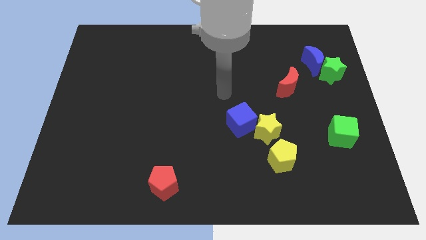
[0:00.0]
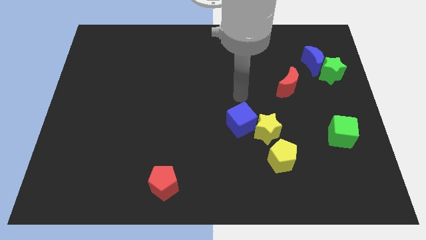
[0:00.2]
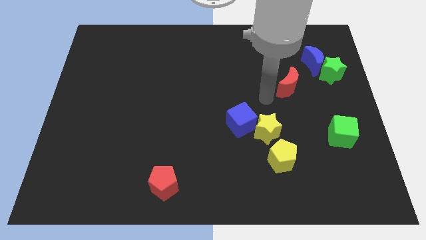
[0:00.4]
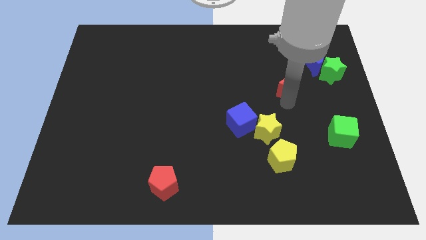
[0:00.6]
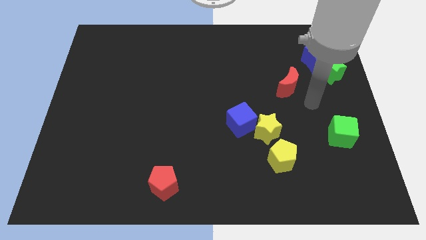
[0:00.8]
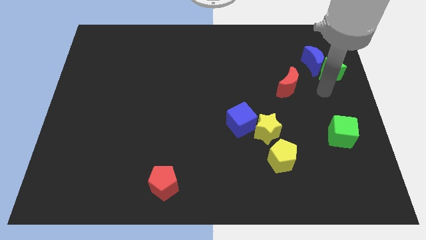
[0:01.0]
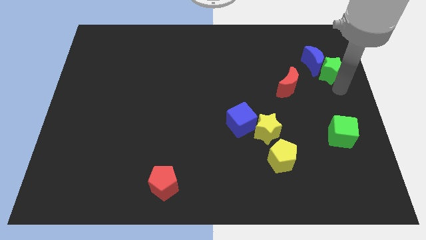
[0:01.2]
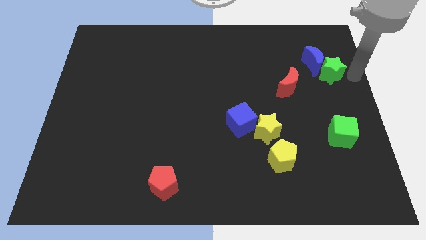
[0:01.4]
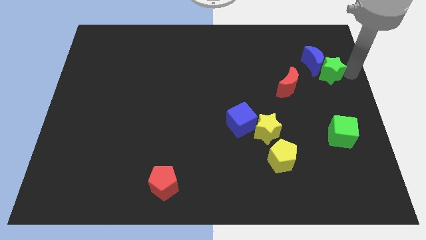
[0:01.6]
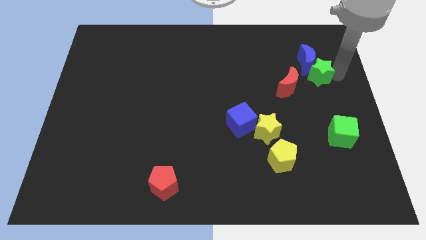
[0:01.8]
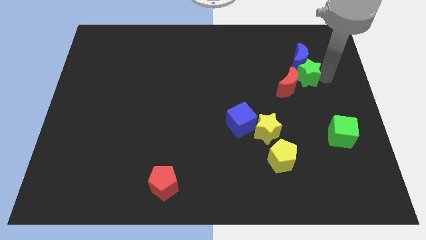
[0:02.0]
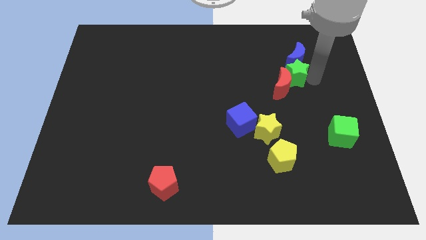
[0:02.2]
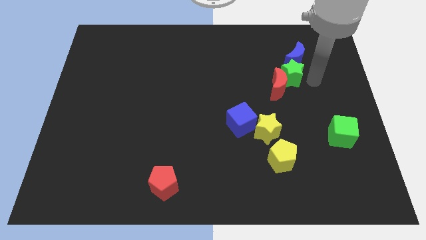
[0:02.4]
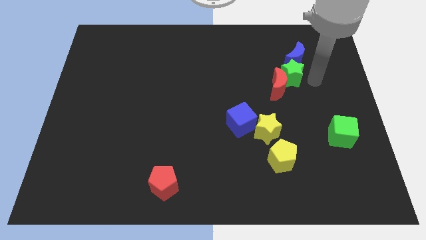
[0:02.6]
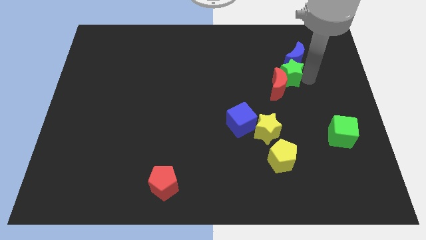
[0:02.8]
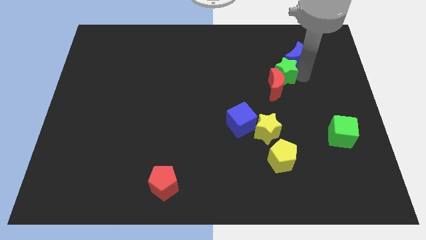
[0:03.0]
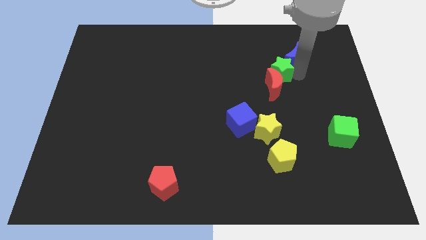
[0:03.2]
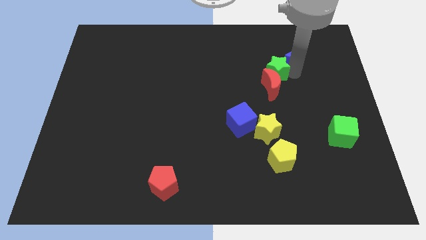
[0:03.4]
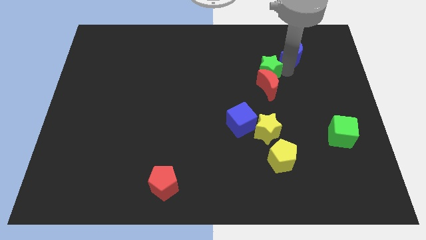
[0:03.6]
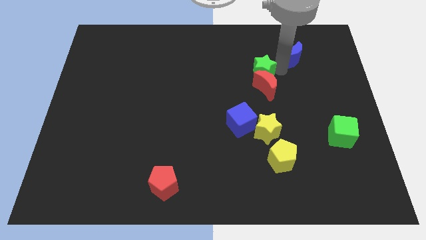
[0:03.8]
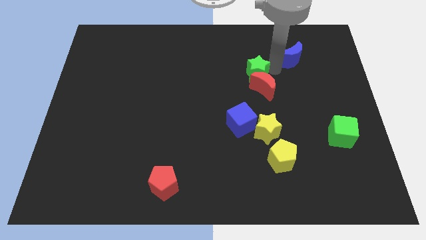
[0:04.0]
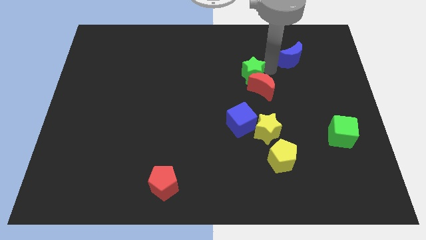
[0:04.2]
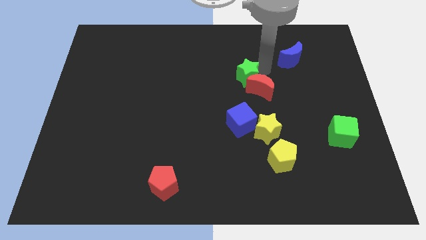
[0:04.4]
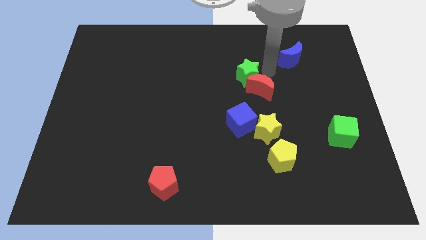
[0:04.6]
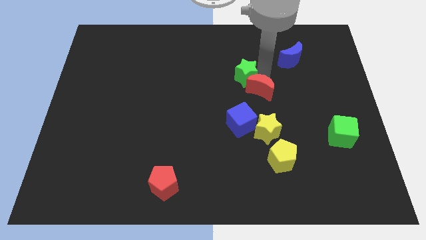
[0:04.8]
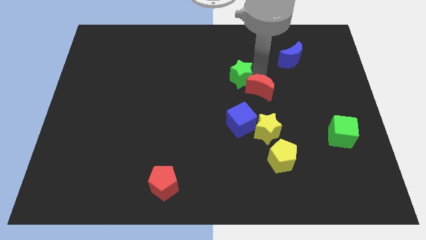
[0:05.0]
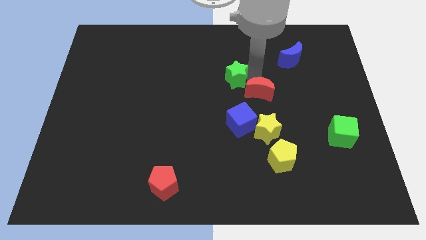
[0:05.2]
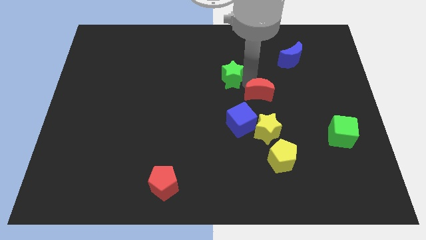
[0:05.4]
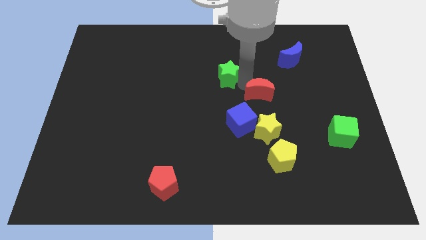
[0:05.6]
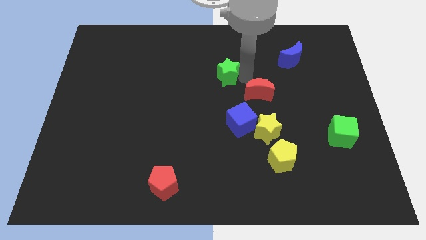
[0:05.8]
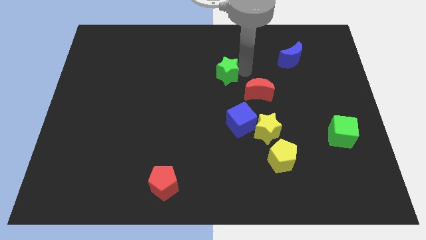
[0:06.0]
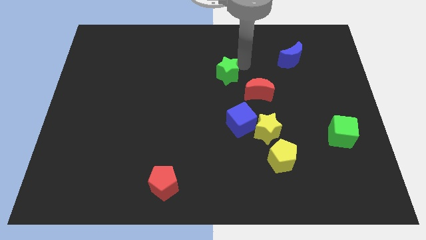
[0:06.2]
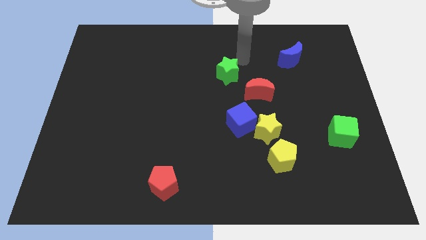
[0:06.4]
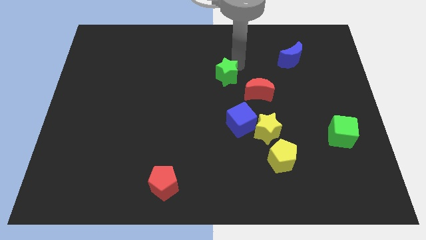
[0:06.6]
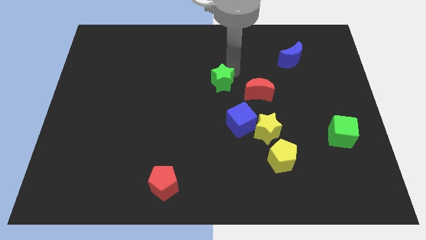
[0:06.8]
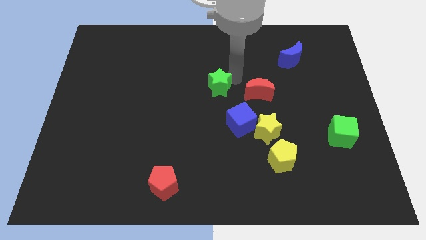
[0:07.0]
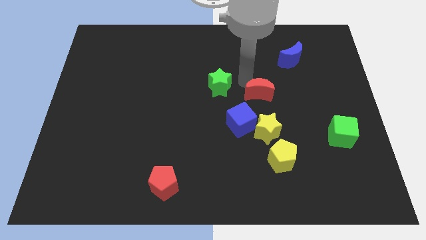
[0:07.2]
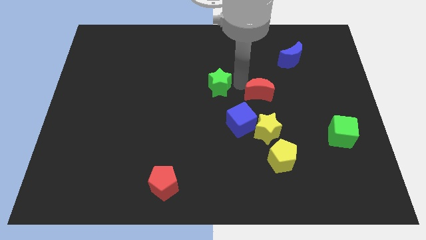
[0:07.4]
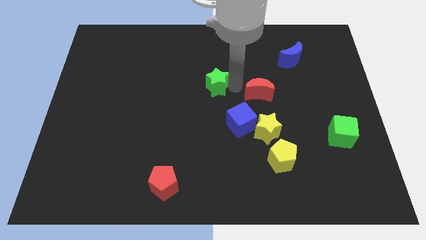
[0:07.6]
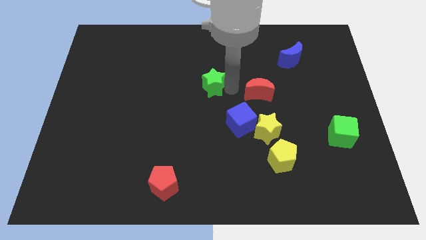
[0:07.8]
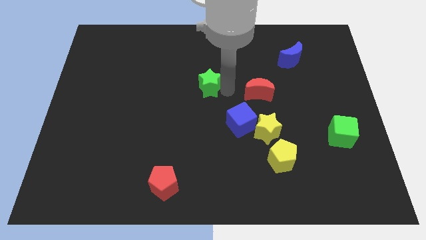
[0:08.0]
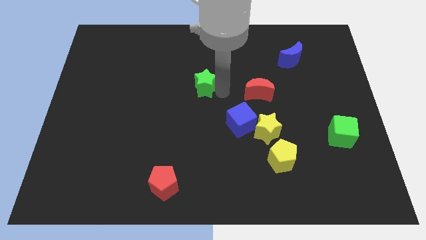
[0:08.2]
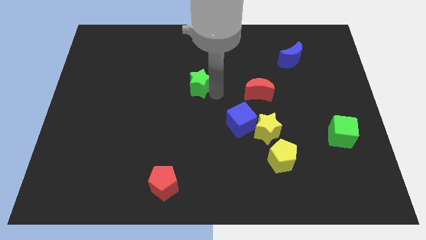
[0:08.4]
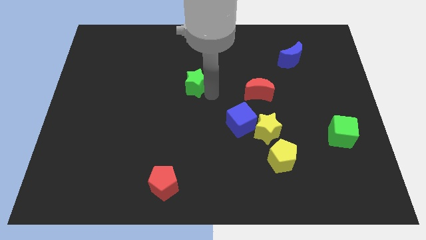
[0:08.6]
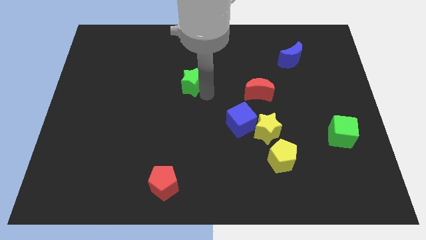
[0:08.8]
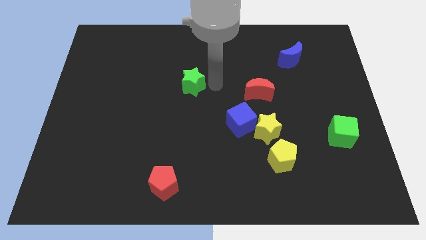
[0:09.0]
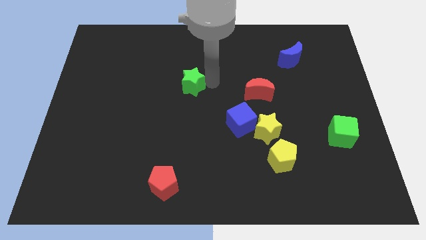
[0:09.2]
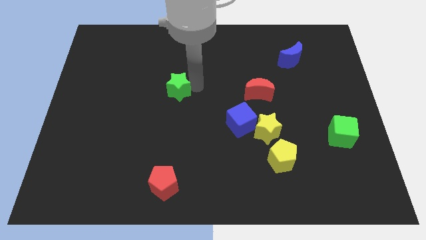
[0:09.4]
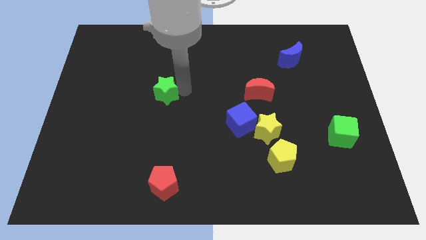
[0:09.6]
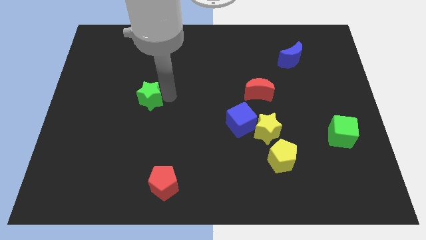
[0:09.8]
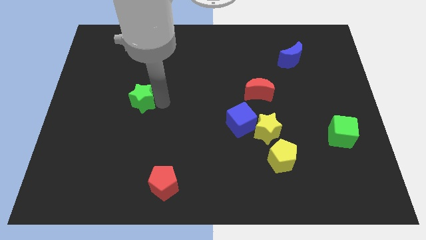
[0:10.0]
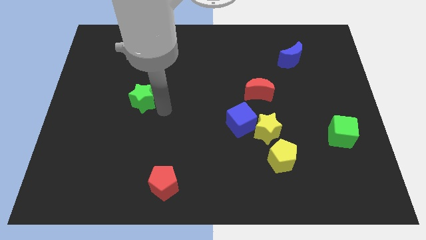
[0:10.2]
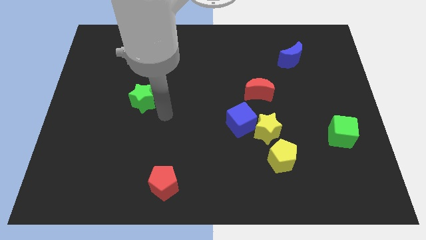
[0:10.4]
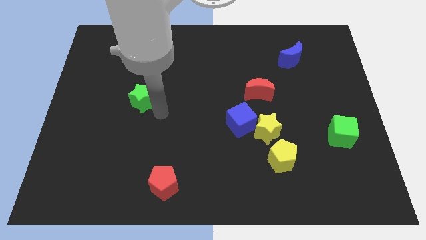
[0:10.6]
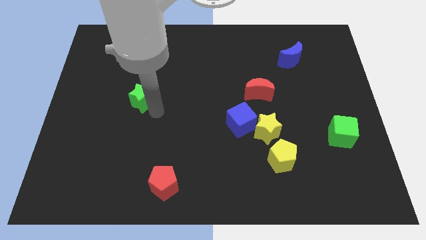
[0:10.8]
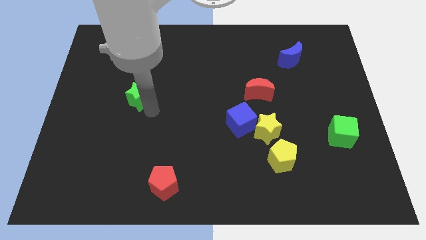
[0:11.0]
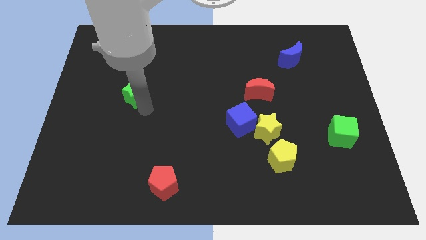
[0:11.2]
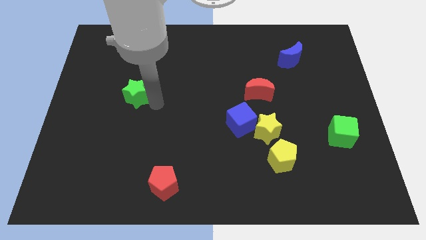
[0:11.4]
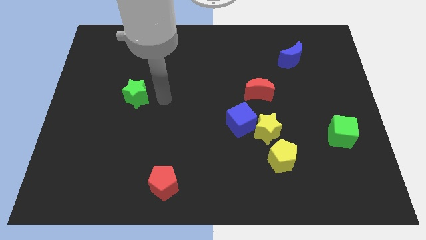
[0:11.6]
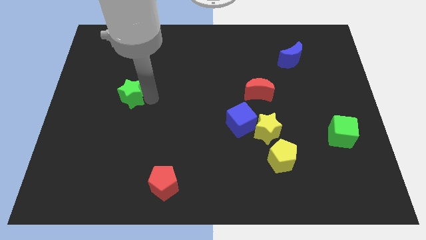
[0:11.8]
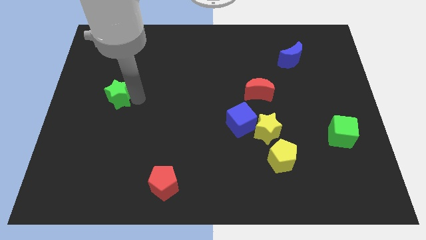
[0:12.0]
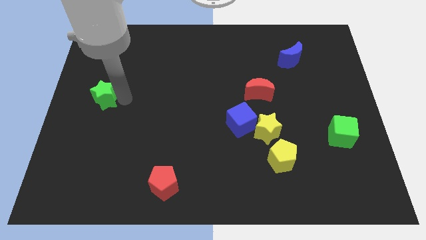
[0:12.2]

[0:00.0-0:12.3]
move the green star to the center left

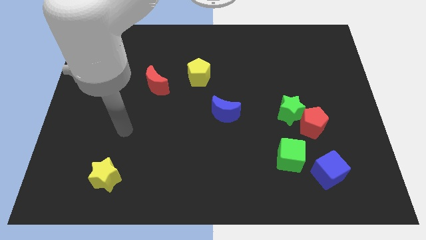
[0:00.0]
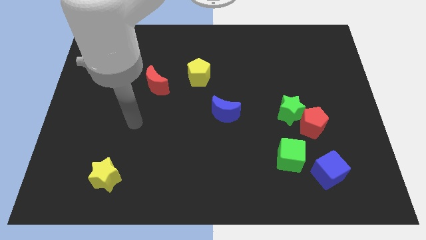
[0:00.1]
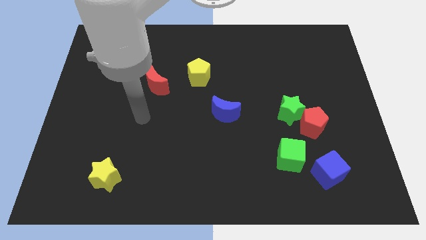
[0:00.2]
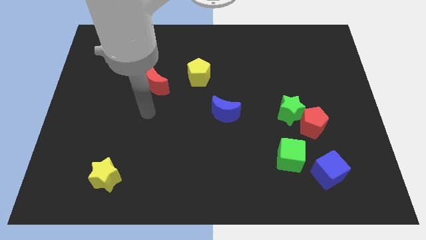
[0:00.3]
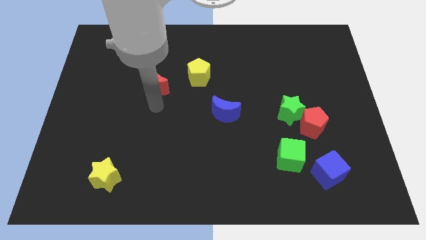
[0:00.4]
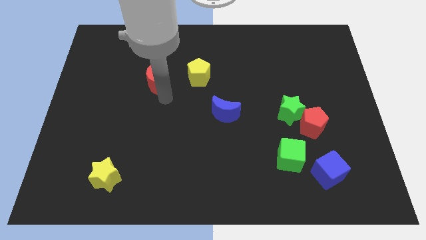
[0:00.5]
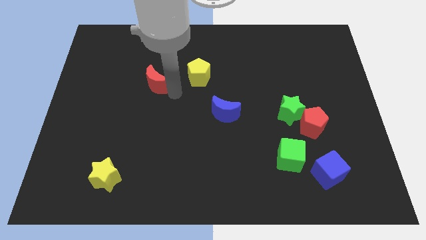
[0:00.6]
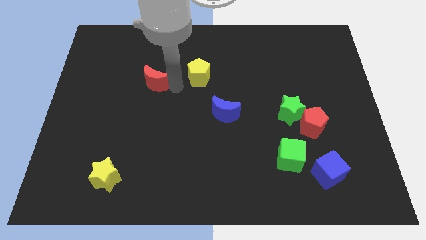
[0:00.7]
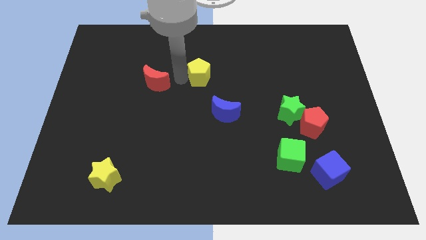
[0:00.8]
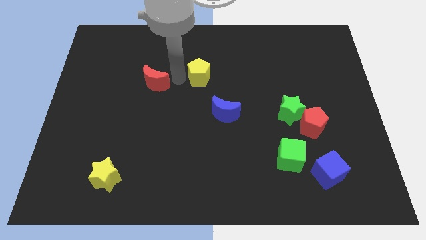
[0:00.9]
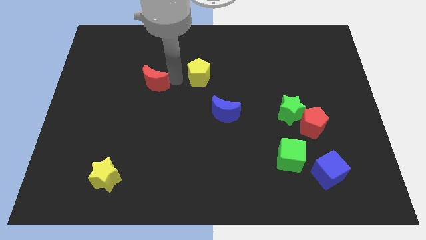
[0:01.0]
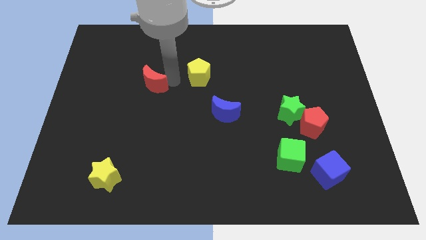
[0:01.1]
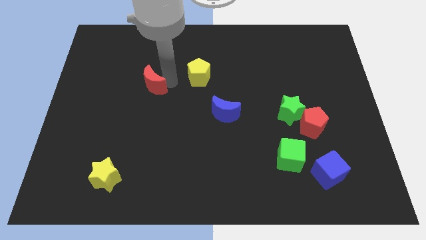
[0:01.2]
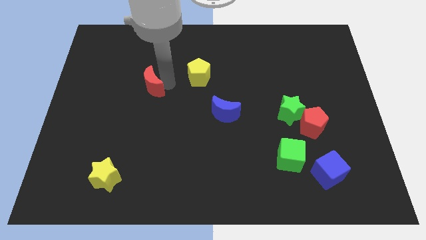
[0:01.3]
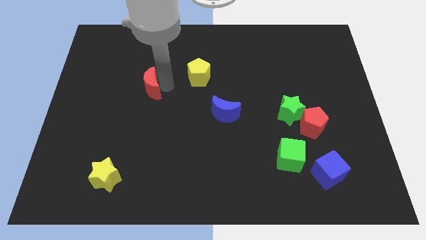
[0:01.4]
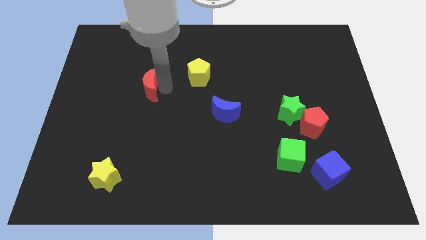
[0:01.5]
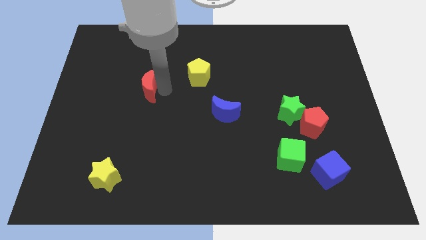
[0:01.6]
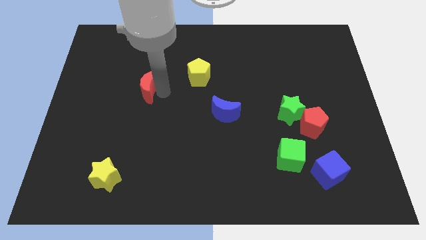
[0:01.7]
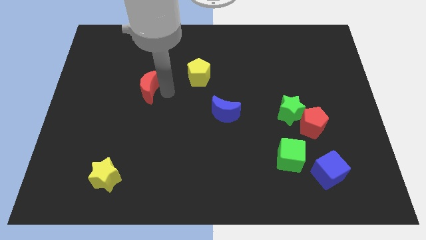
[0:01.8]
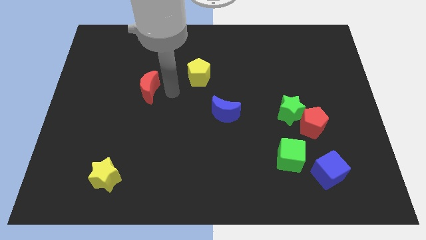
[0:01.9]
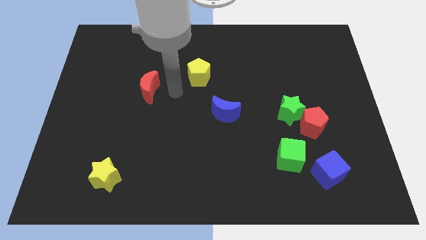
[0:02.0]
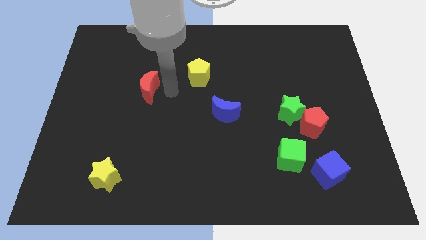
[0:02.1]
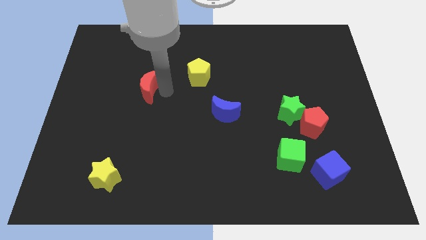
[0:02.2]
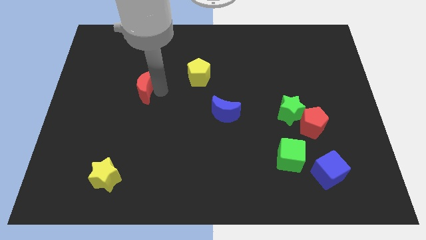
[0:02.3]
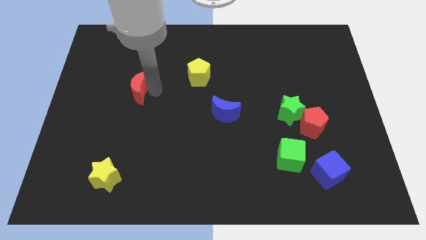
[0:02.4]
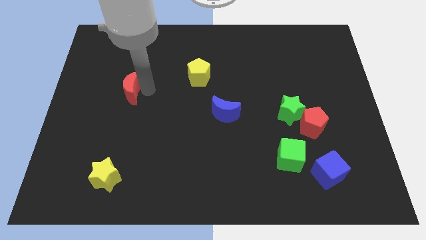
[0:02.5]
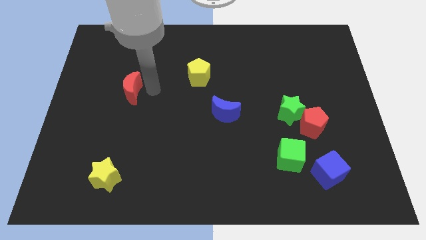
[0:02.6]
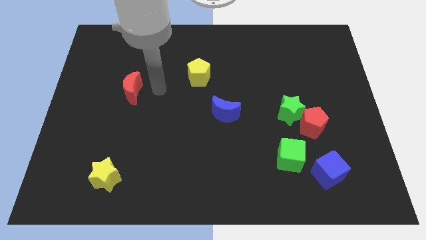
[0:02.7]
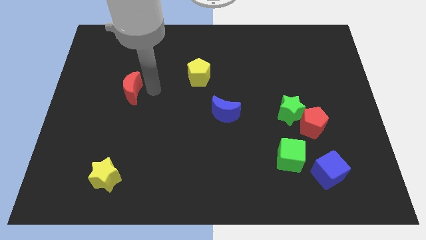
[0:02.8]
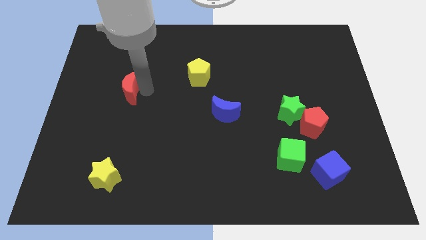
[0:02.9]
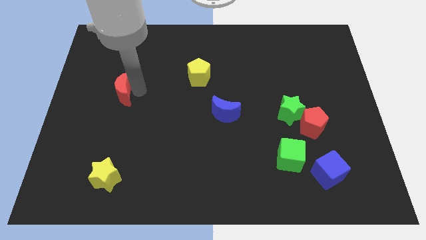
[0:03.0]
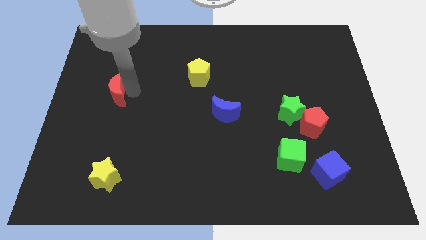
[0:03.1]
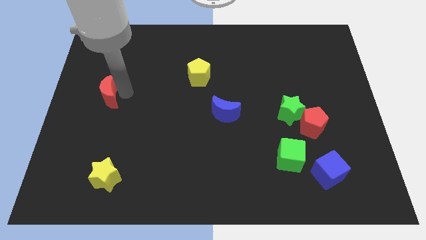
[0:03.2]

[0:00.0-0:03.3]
slide the red moon to the left side of the board
